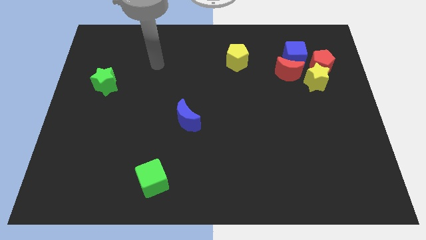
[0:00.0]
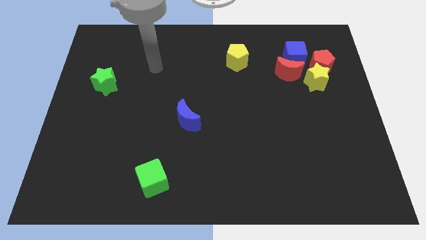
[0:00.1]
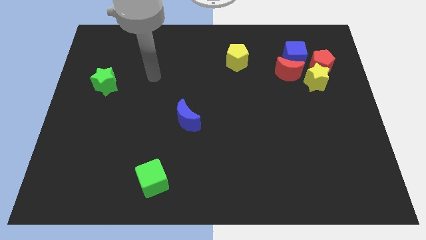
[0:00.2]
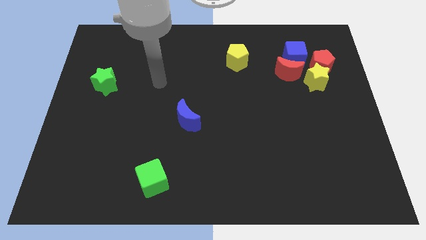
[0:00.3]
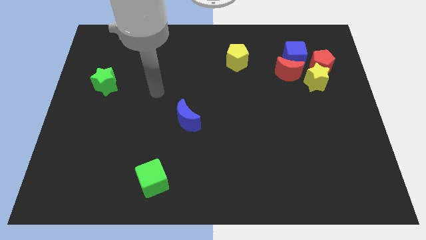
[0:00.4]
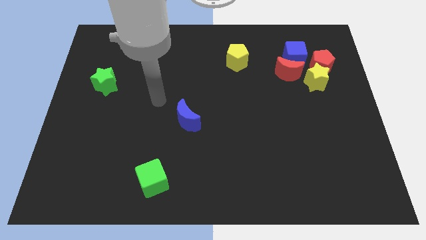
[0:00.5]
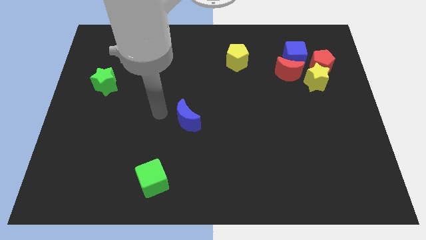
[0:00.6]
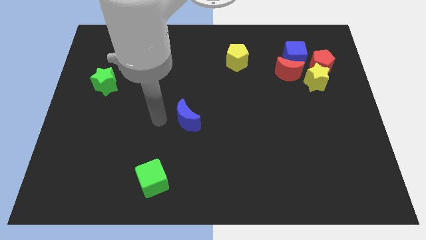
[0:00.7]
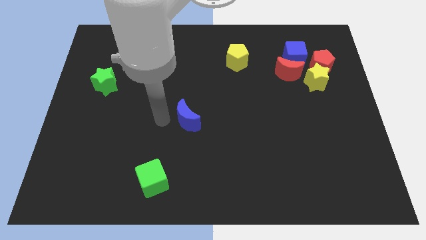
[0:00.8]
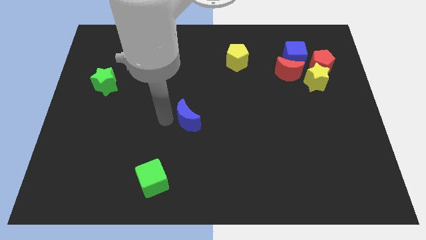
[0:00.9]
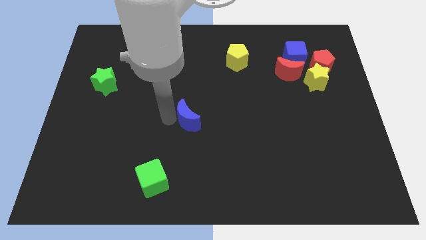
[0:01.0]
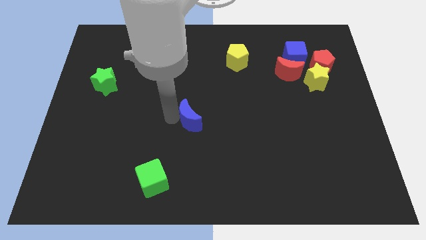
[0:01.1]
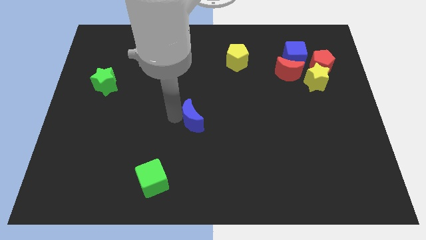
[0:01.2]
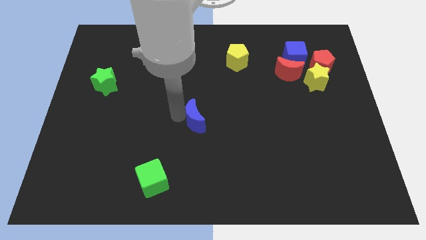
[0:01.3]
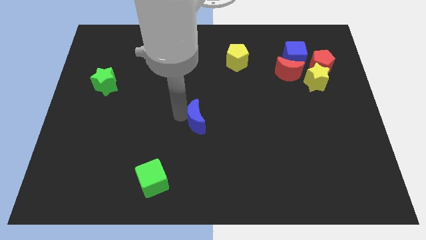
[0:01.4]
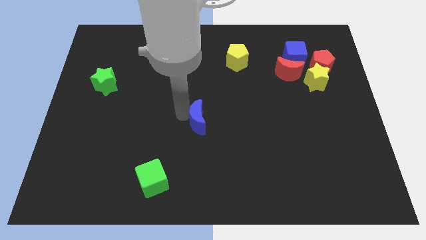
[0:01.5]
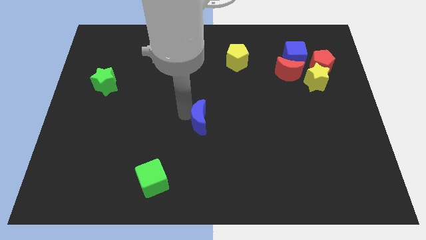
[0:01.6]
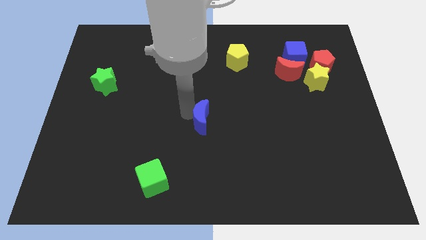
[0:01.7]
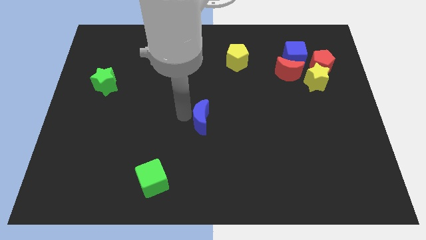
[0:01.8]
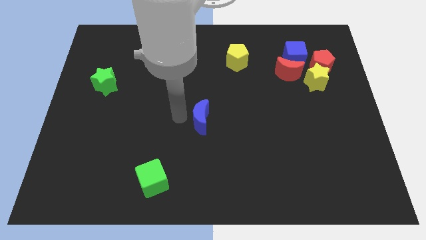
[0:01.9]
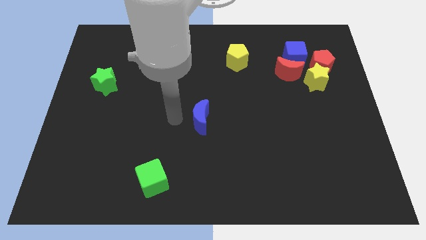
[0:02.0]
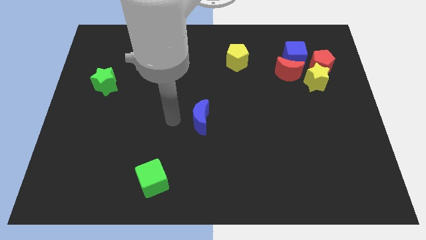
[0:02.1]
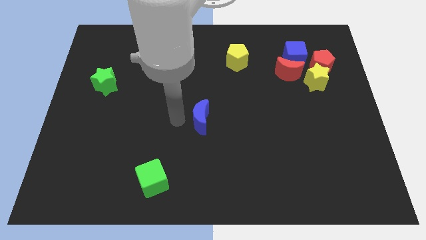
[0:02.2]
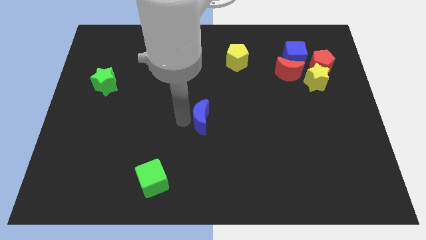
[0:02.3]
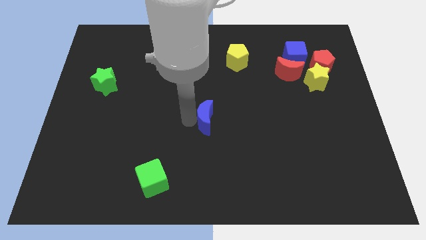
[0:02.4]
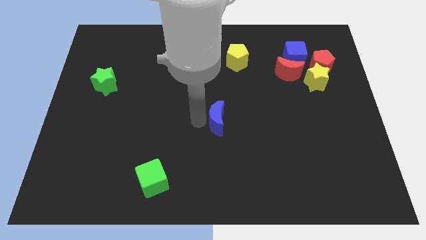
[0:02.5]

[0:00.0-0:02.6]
push the blue moon a bit right

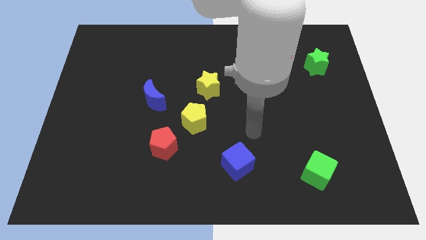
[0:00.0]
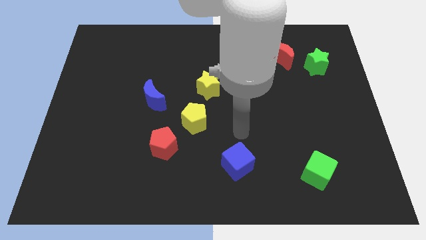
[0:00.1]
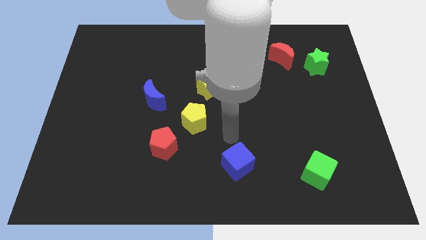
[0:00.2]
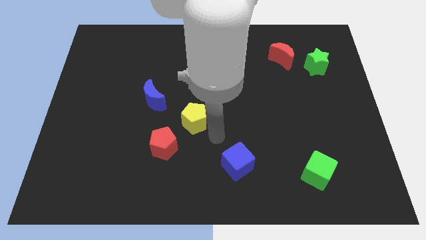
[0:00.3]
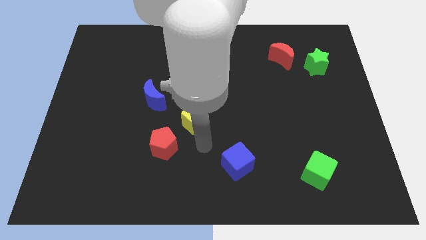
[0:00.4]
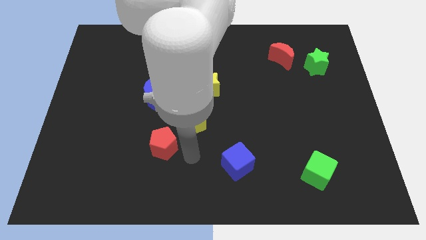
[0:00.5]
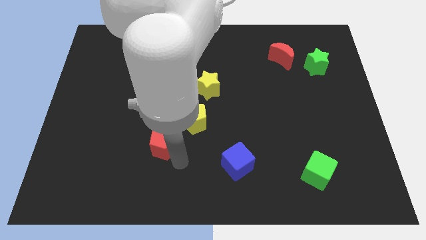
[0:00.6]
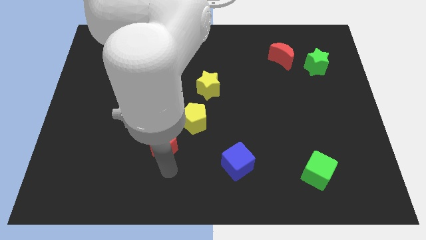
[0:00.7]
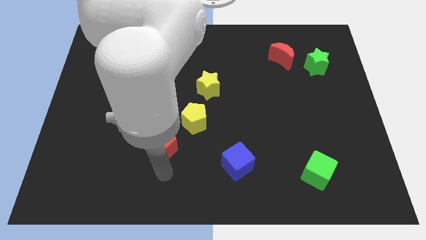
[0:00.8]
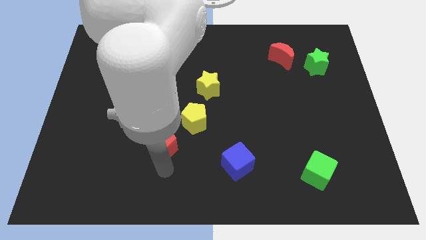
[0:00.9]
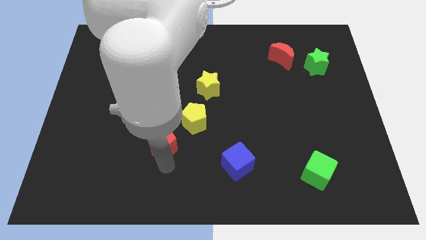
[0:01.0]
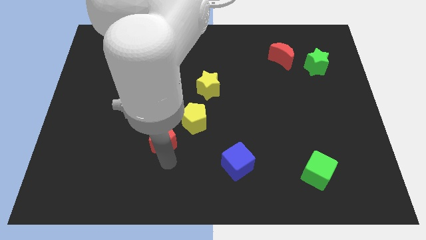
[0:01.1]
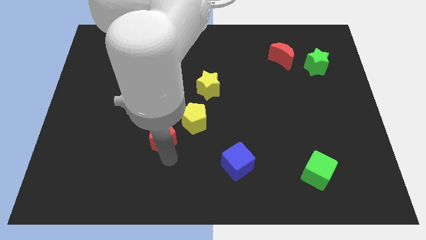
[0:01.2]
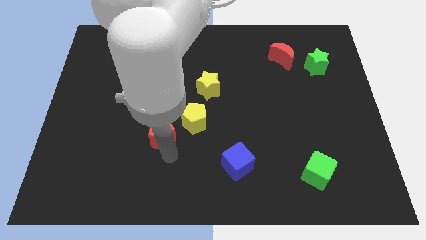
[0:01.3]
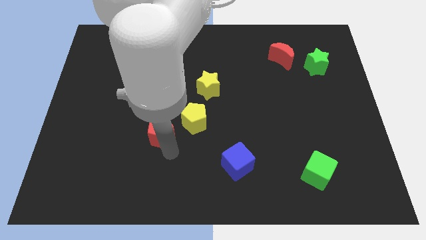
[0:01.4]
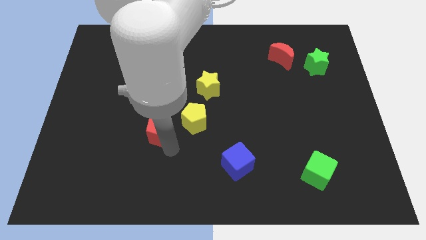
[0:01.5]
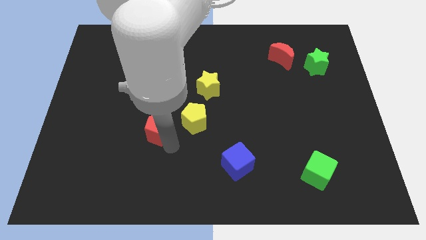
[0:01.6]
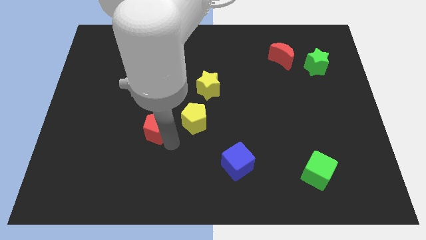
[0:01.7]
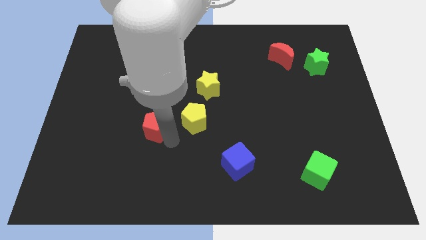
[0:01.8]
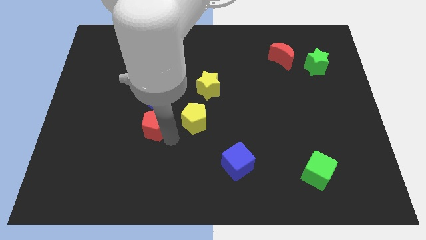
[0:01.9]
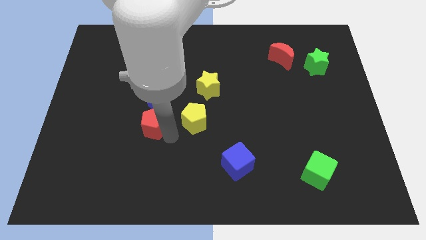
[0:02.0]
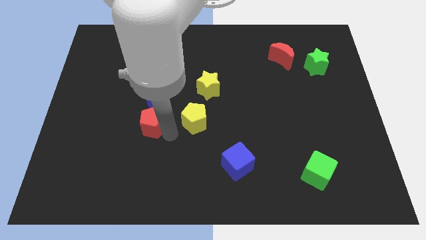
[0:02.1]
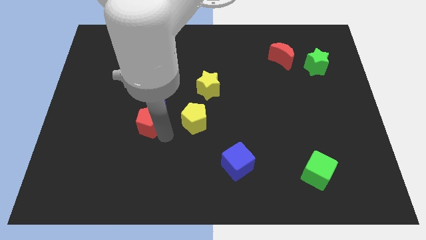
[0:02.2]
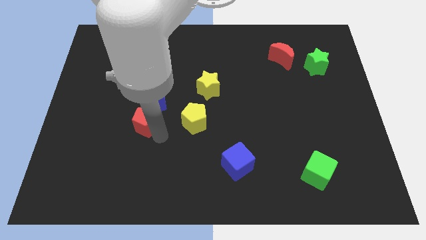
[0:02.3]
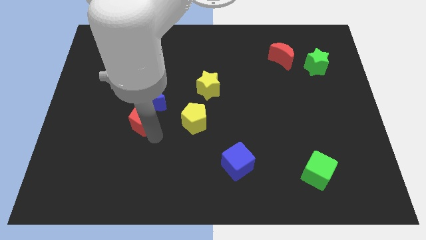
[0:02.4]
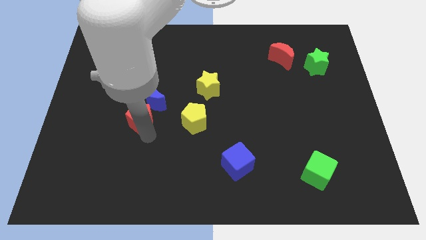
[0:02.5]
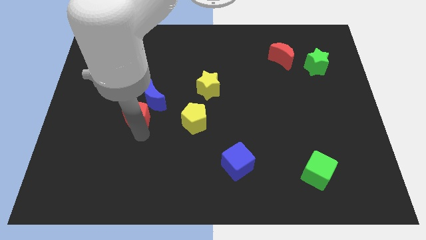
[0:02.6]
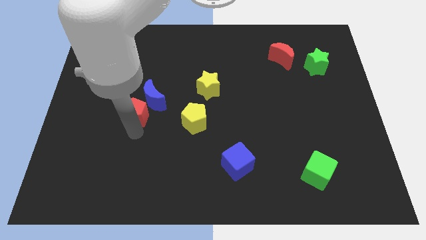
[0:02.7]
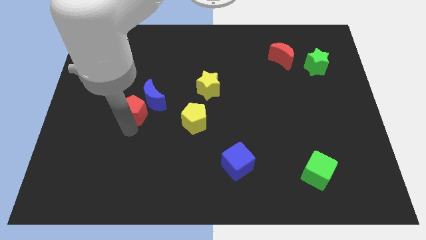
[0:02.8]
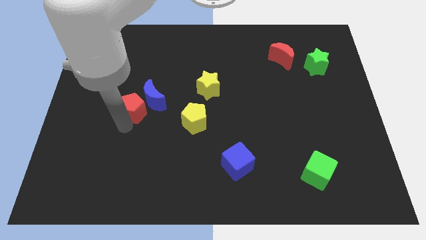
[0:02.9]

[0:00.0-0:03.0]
push the red pentagon up somewhat

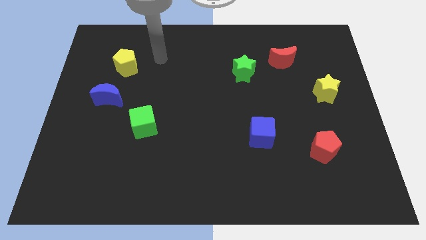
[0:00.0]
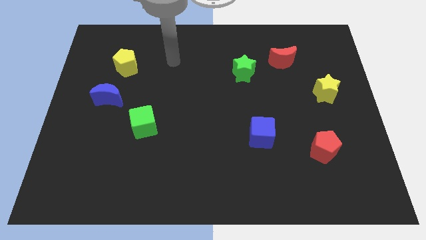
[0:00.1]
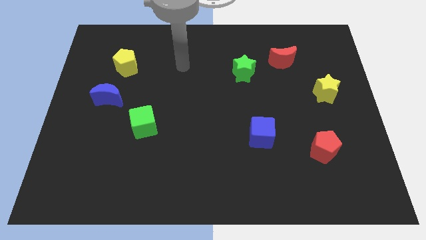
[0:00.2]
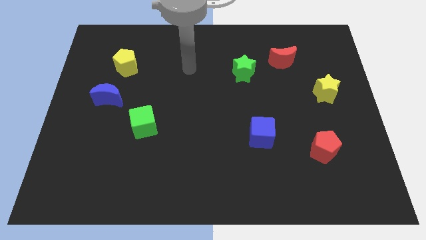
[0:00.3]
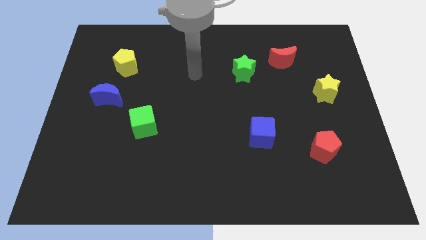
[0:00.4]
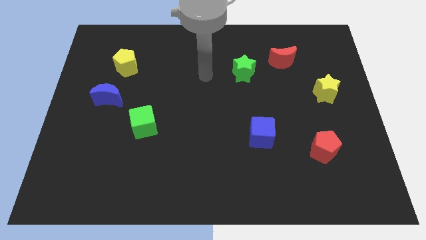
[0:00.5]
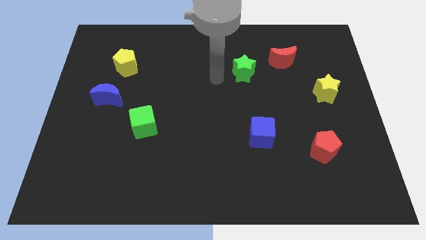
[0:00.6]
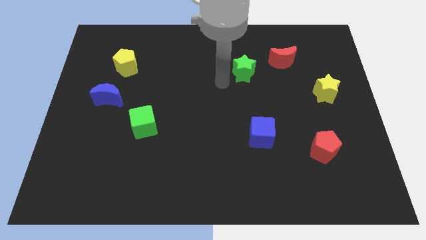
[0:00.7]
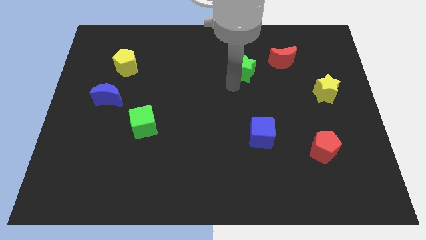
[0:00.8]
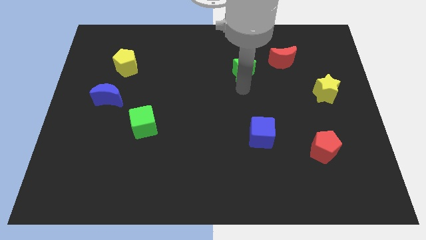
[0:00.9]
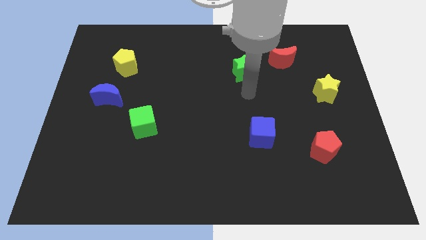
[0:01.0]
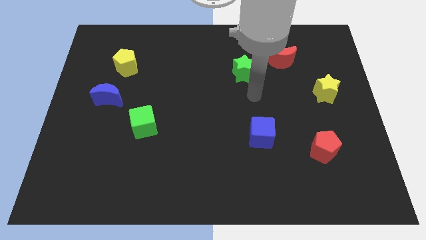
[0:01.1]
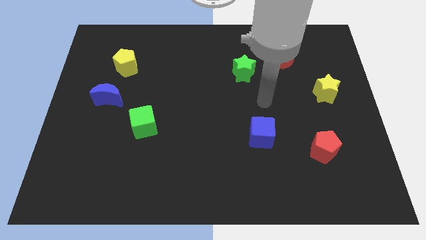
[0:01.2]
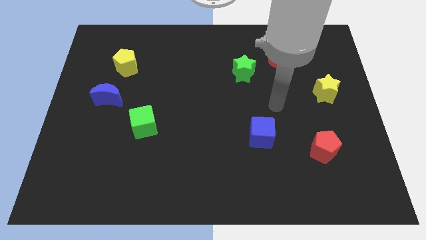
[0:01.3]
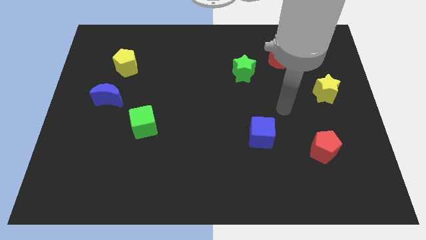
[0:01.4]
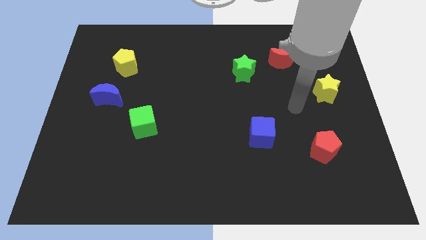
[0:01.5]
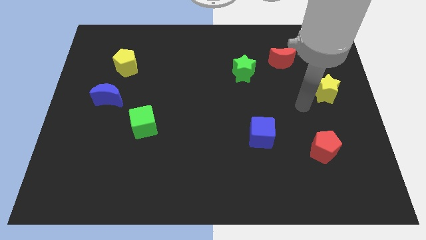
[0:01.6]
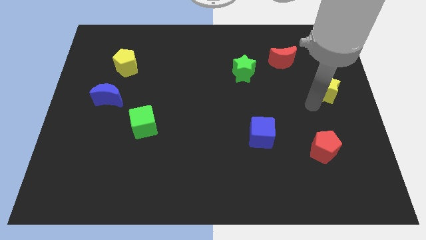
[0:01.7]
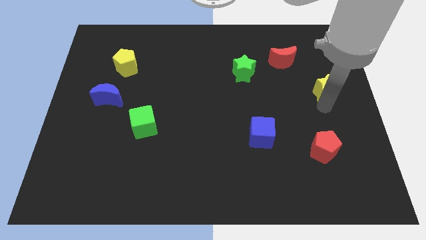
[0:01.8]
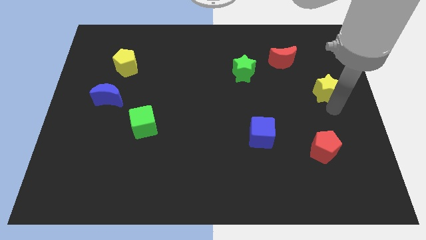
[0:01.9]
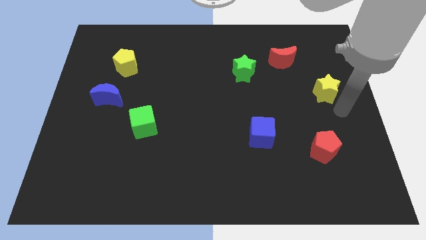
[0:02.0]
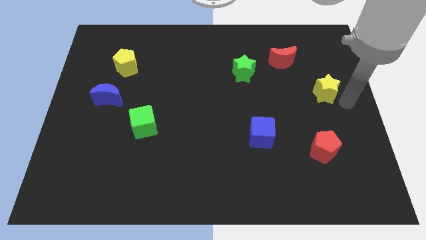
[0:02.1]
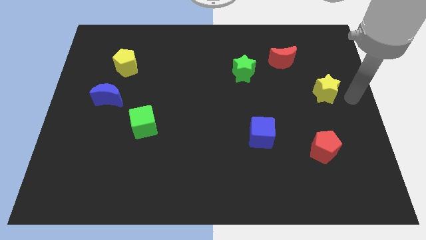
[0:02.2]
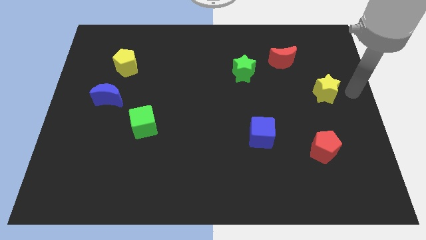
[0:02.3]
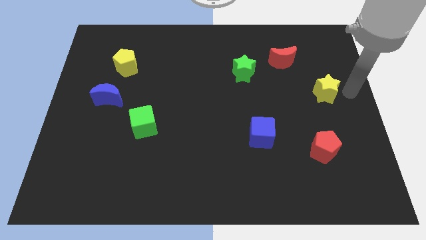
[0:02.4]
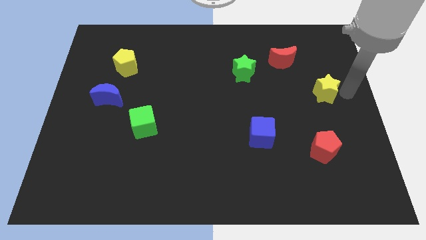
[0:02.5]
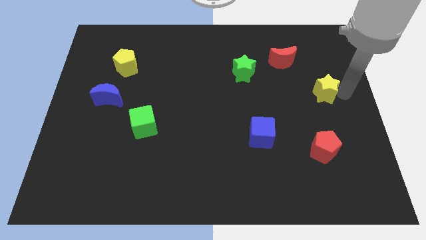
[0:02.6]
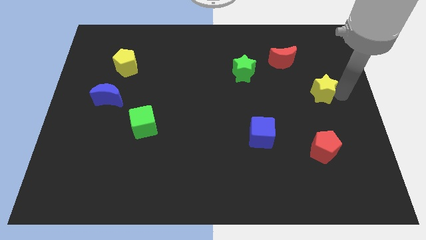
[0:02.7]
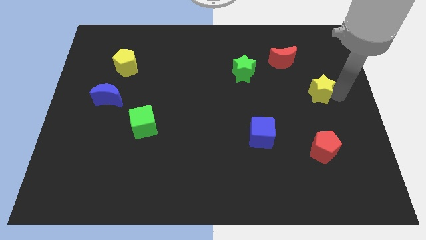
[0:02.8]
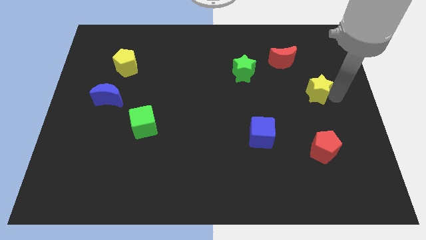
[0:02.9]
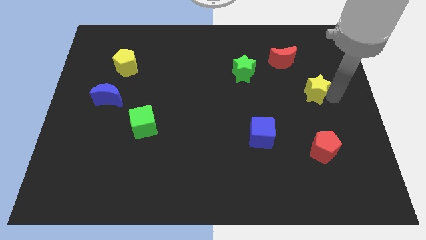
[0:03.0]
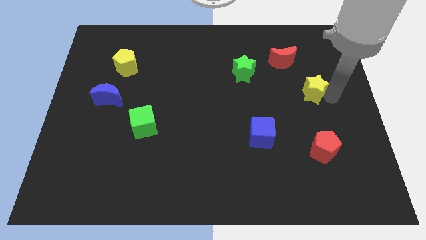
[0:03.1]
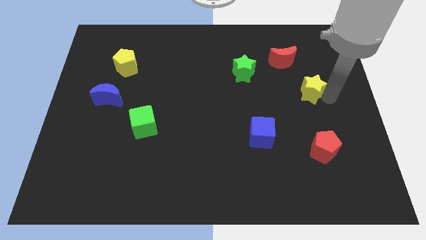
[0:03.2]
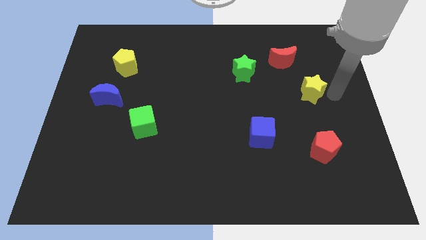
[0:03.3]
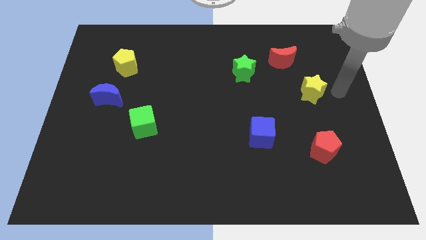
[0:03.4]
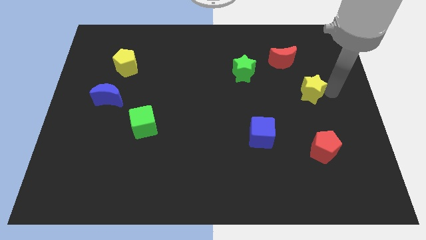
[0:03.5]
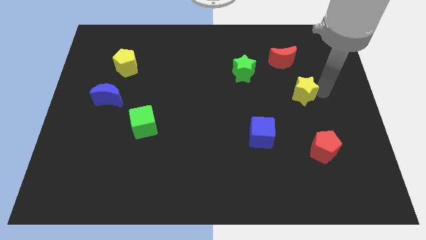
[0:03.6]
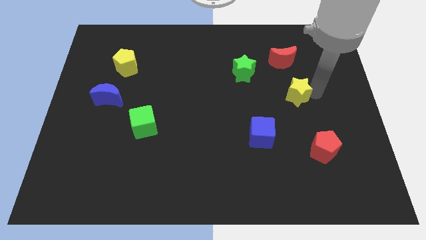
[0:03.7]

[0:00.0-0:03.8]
slightly slide the yellow star left
